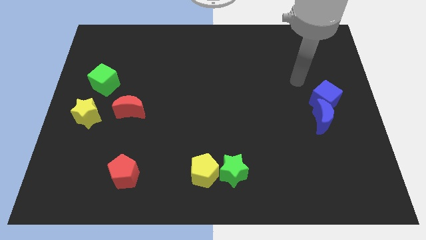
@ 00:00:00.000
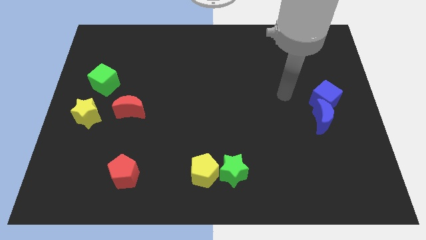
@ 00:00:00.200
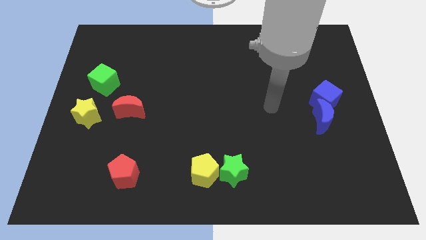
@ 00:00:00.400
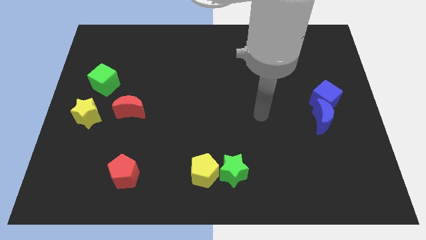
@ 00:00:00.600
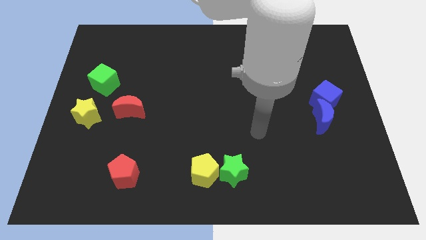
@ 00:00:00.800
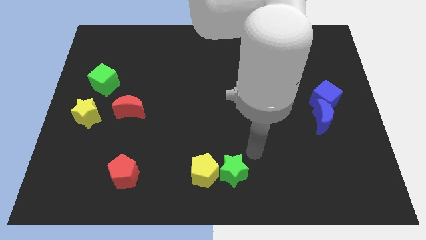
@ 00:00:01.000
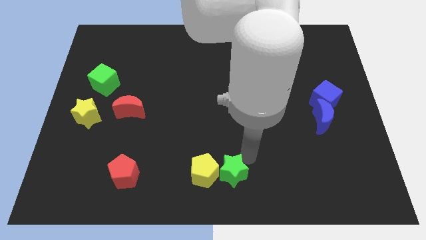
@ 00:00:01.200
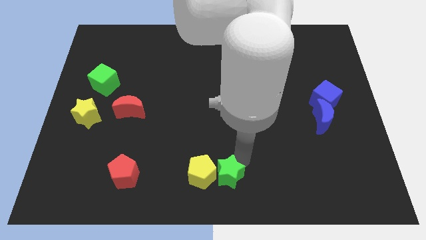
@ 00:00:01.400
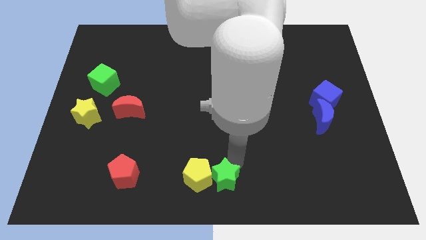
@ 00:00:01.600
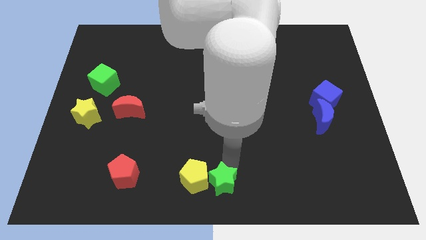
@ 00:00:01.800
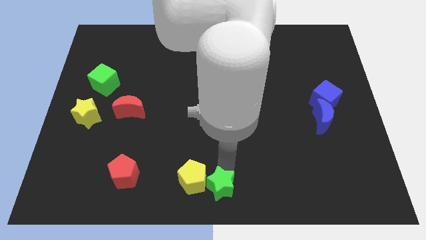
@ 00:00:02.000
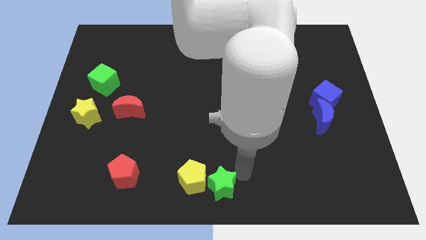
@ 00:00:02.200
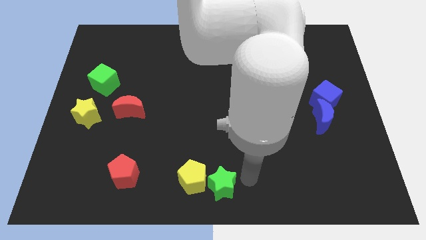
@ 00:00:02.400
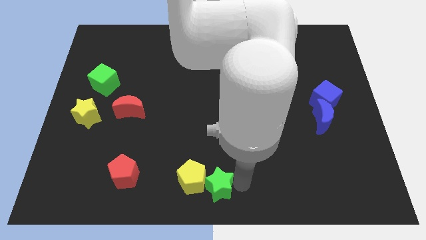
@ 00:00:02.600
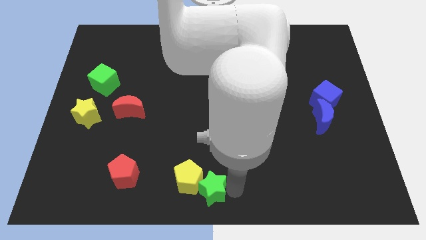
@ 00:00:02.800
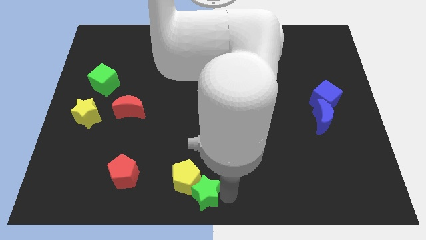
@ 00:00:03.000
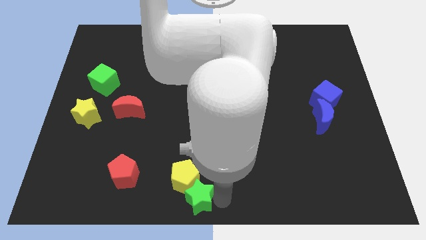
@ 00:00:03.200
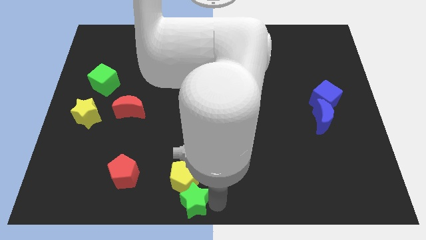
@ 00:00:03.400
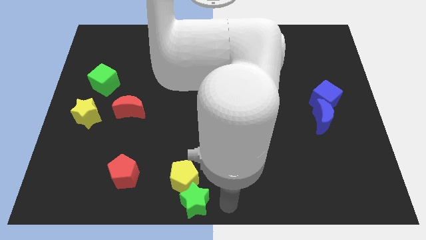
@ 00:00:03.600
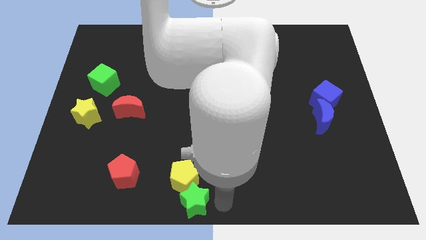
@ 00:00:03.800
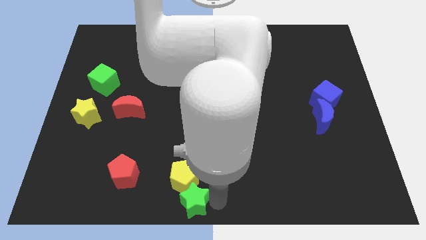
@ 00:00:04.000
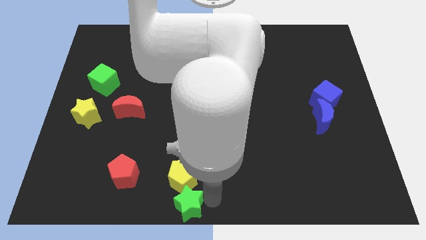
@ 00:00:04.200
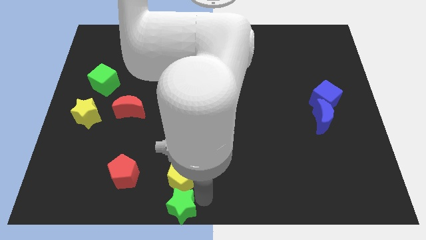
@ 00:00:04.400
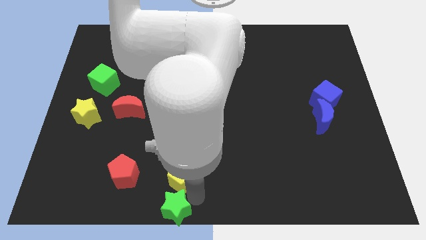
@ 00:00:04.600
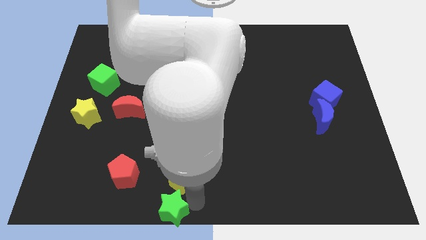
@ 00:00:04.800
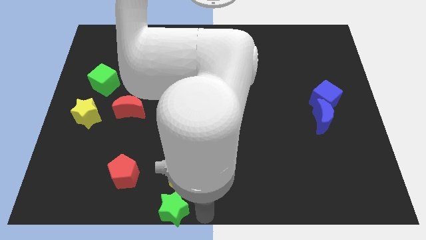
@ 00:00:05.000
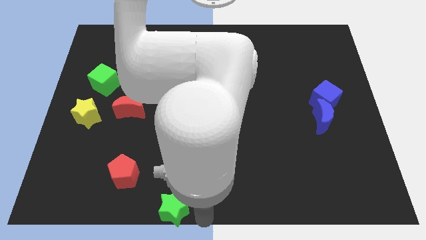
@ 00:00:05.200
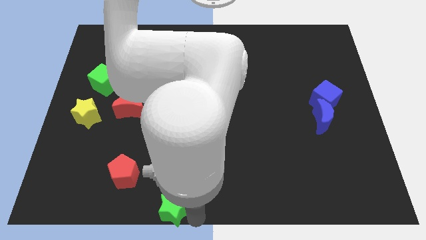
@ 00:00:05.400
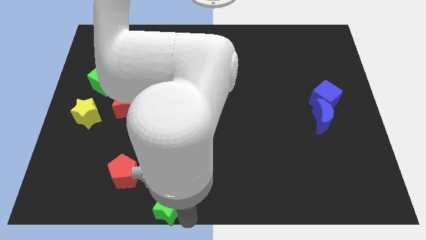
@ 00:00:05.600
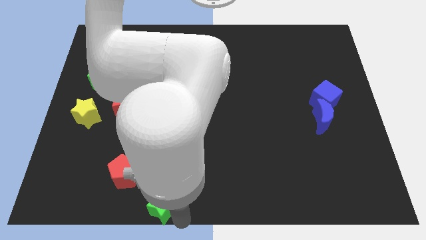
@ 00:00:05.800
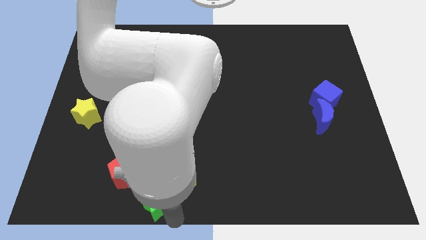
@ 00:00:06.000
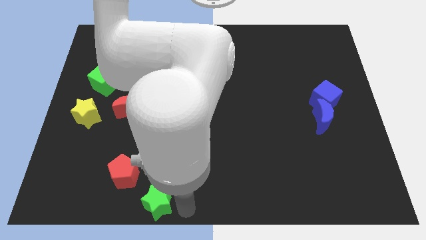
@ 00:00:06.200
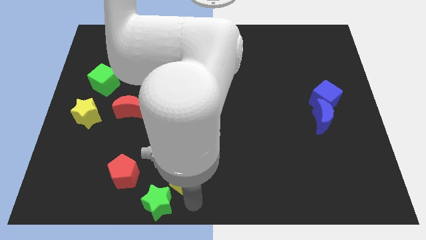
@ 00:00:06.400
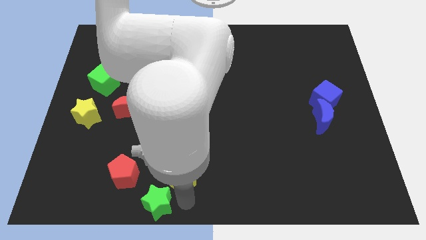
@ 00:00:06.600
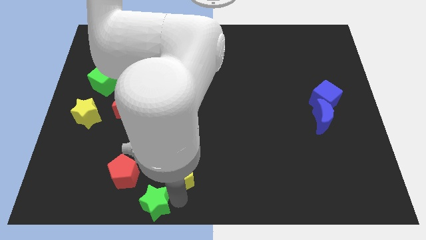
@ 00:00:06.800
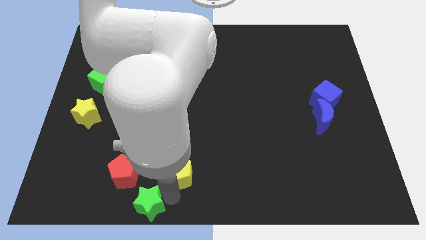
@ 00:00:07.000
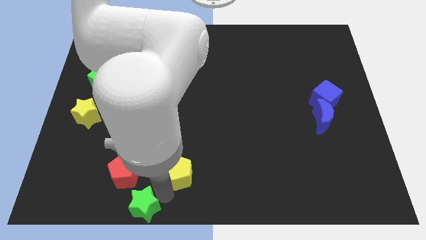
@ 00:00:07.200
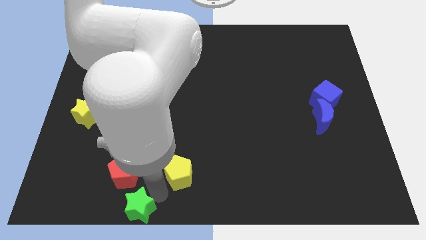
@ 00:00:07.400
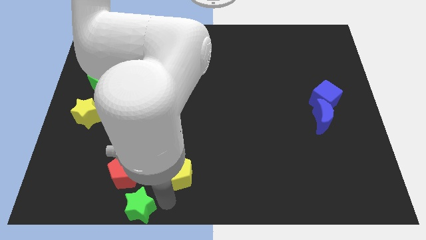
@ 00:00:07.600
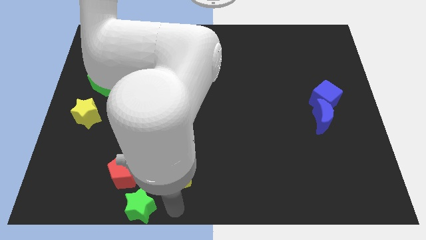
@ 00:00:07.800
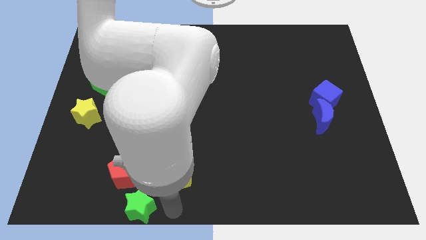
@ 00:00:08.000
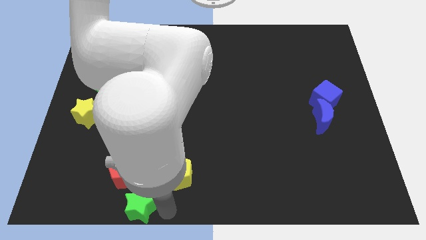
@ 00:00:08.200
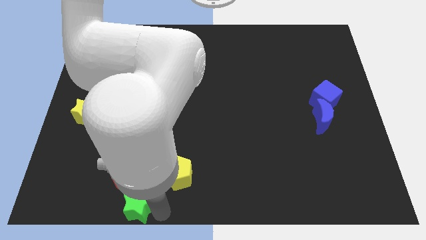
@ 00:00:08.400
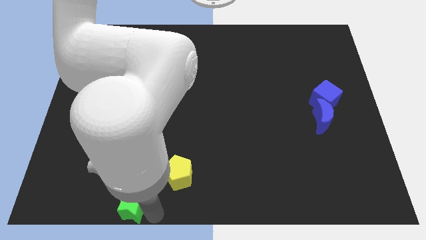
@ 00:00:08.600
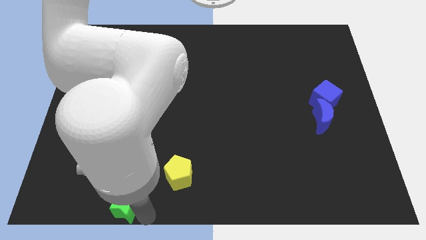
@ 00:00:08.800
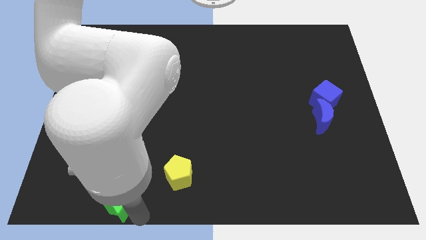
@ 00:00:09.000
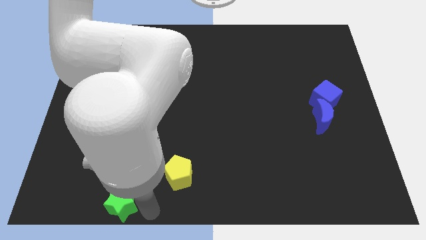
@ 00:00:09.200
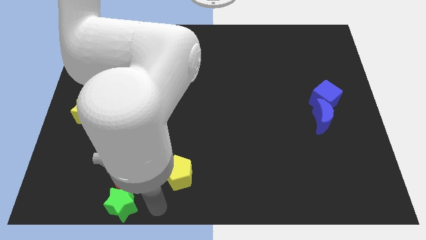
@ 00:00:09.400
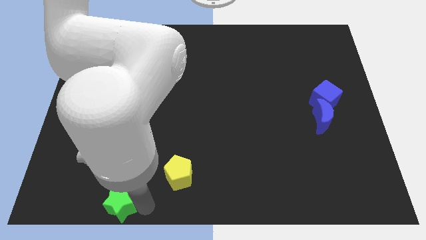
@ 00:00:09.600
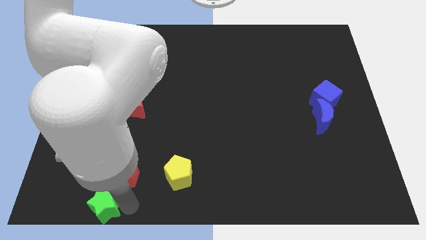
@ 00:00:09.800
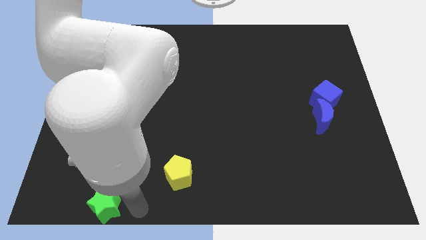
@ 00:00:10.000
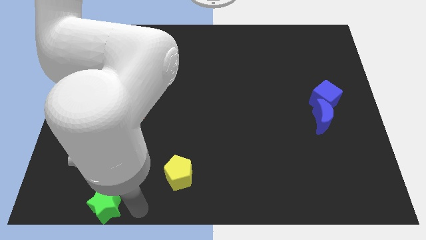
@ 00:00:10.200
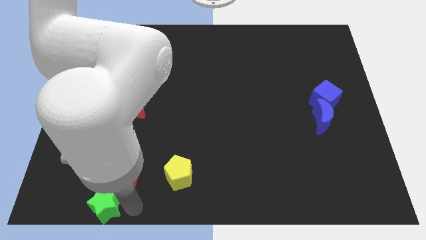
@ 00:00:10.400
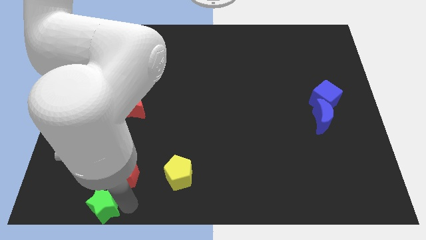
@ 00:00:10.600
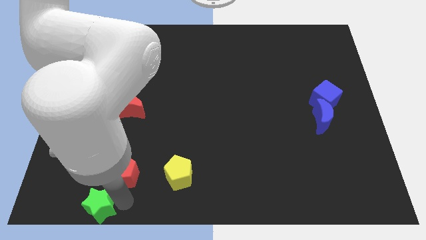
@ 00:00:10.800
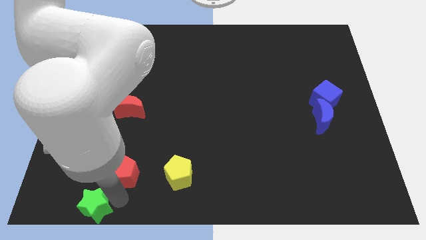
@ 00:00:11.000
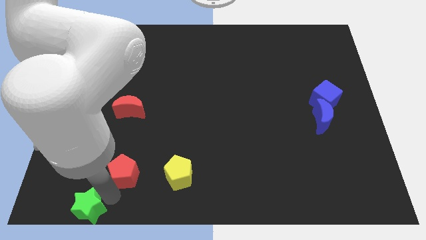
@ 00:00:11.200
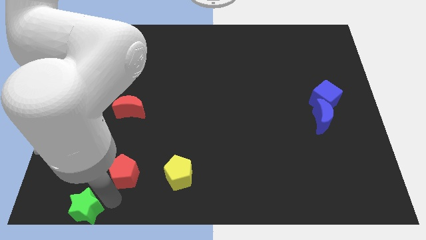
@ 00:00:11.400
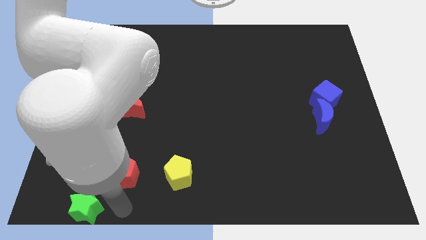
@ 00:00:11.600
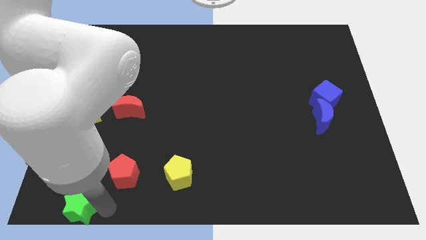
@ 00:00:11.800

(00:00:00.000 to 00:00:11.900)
slide the green star to the bottom left of the board

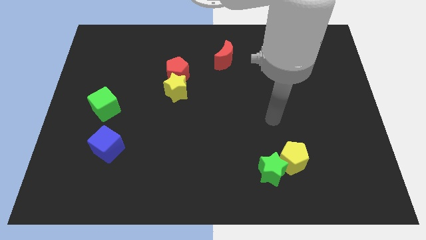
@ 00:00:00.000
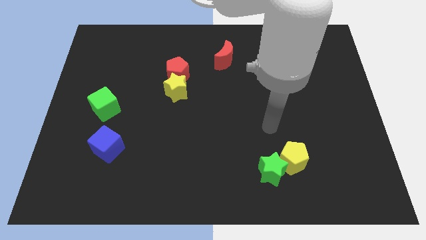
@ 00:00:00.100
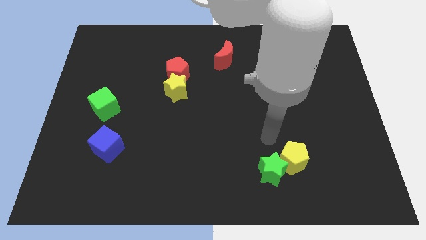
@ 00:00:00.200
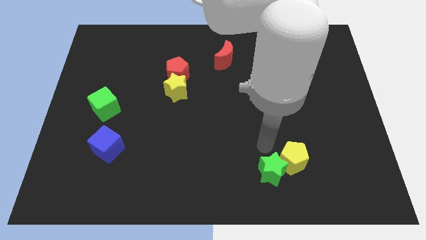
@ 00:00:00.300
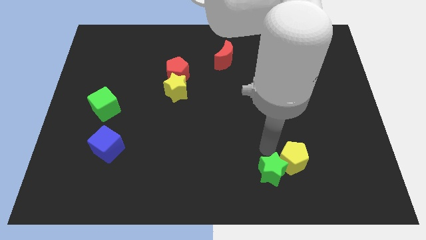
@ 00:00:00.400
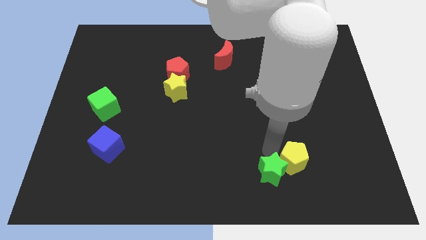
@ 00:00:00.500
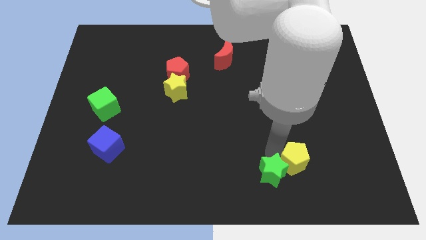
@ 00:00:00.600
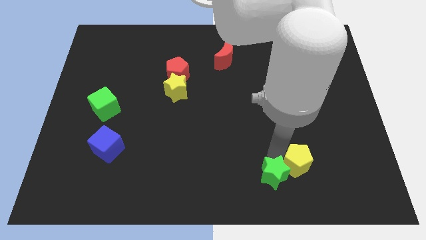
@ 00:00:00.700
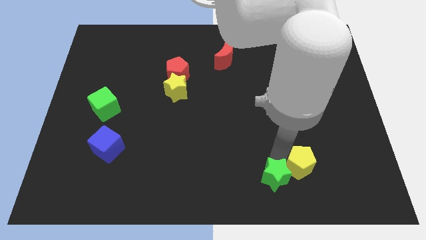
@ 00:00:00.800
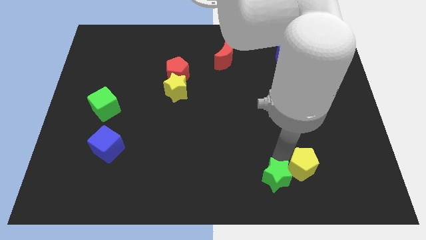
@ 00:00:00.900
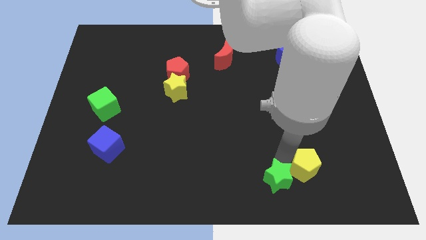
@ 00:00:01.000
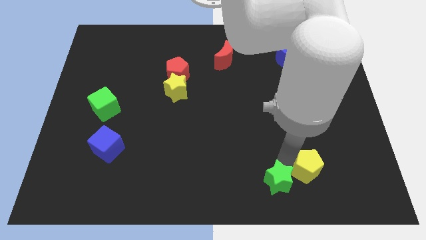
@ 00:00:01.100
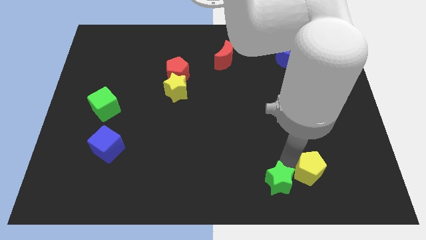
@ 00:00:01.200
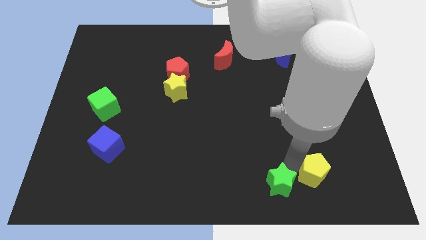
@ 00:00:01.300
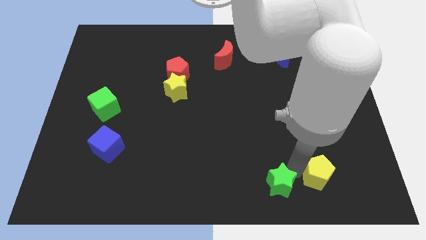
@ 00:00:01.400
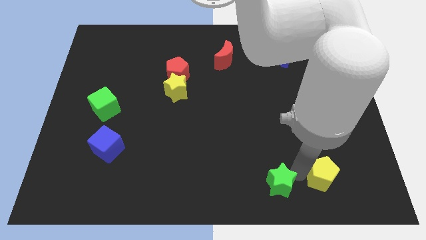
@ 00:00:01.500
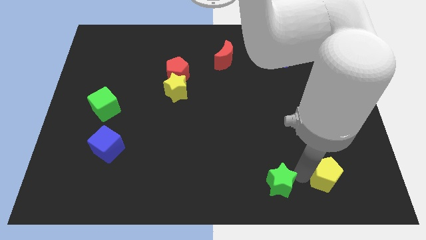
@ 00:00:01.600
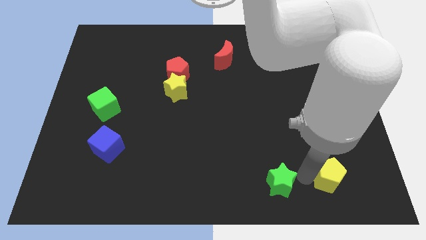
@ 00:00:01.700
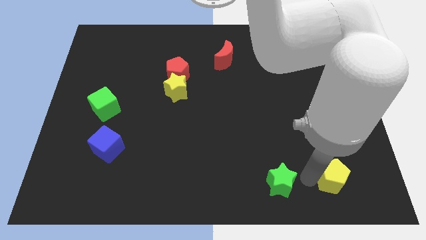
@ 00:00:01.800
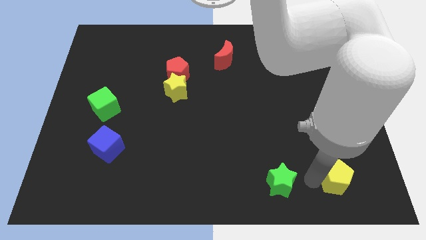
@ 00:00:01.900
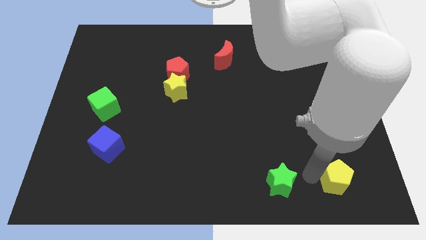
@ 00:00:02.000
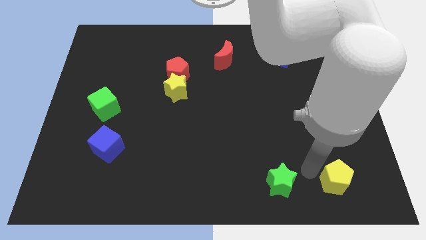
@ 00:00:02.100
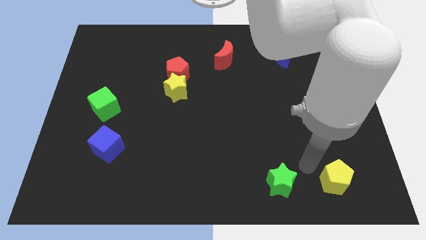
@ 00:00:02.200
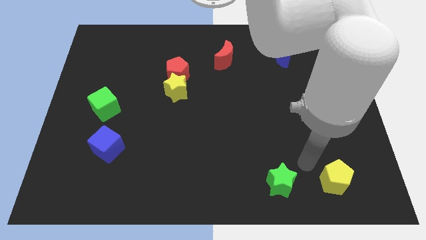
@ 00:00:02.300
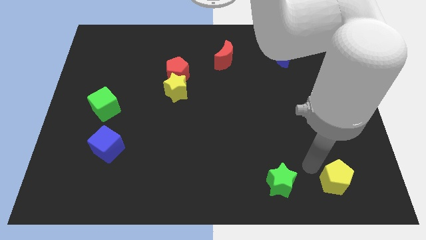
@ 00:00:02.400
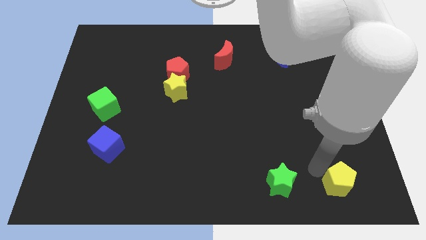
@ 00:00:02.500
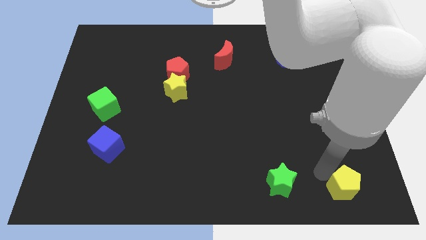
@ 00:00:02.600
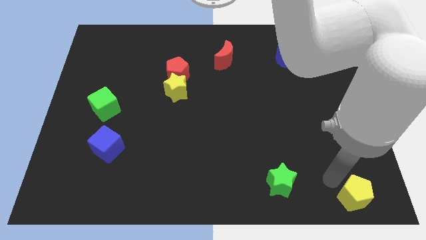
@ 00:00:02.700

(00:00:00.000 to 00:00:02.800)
slide the yellow pentagon to the bottom right corner
